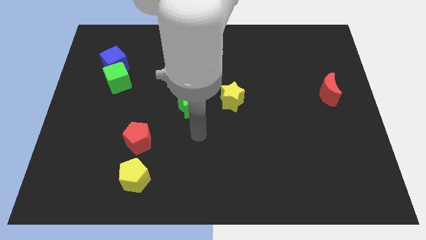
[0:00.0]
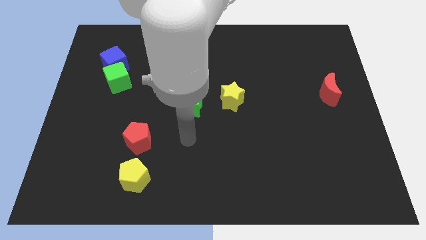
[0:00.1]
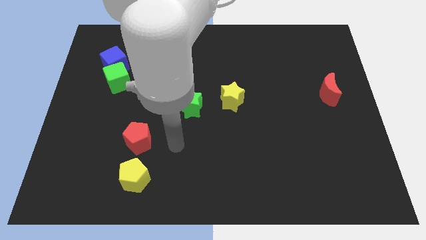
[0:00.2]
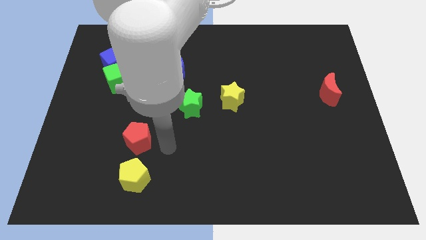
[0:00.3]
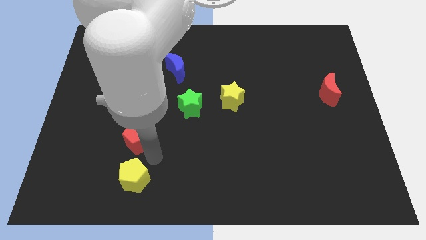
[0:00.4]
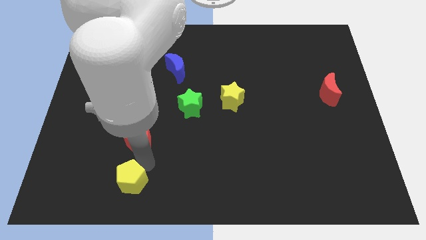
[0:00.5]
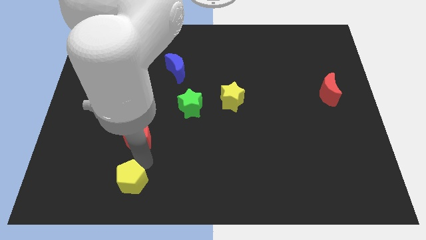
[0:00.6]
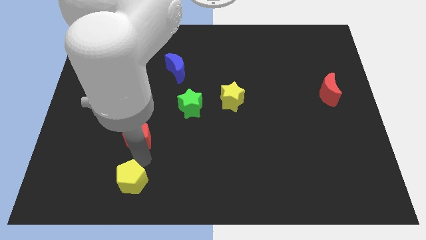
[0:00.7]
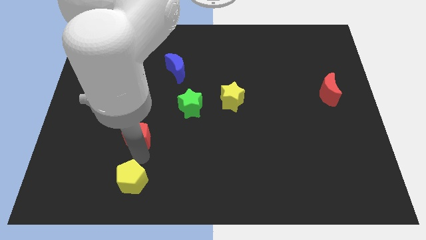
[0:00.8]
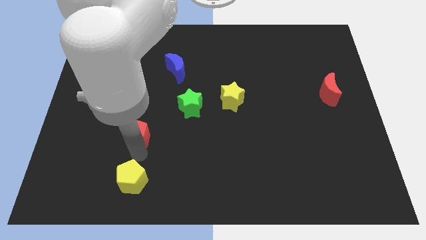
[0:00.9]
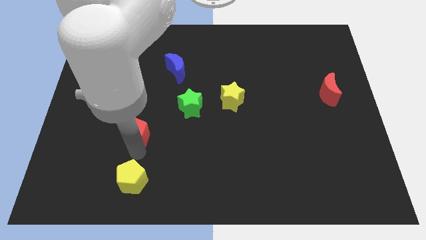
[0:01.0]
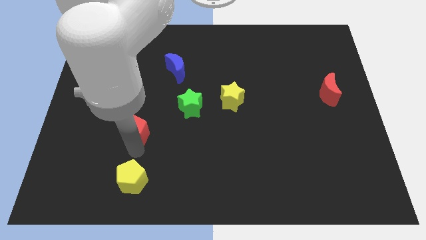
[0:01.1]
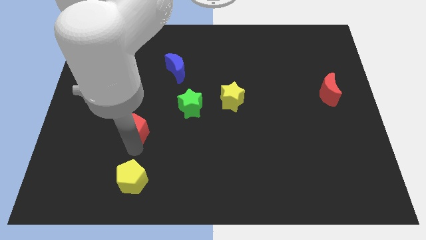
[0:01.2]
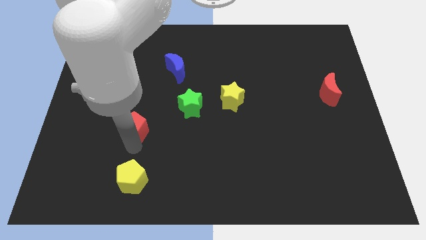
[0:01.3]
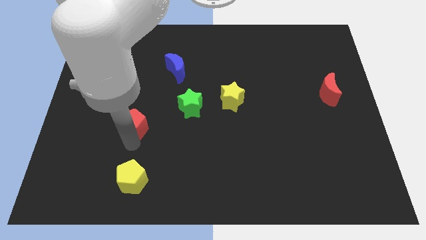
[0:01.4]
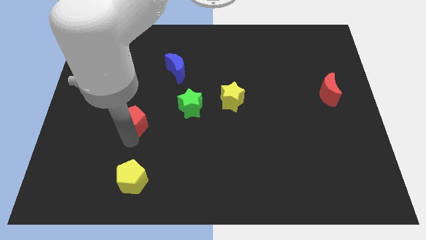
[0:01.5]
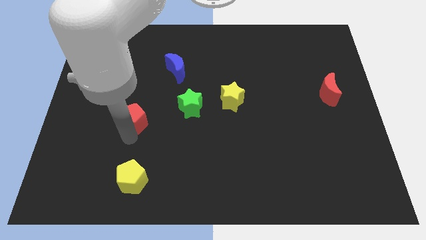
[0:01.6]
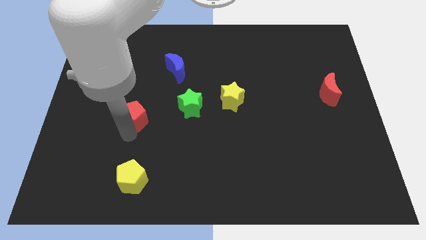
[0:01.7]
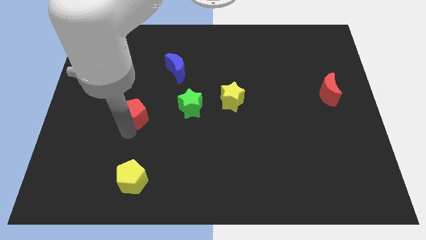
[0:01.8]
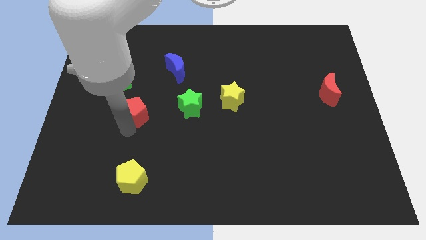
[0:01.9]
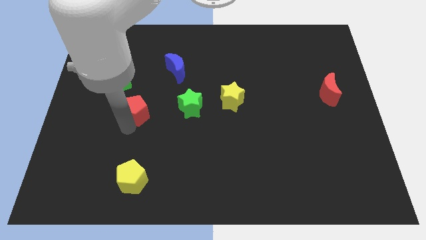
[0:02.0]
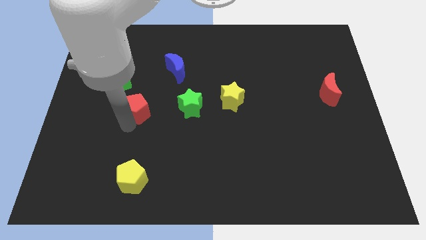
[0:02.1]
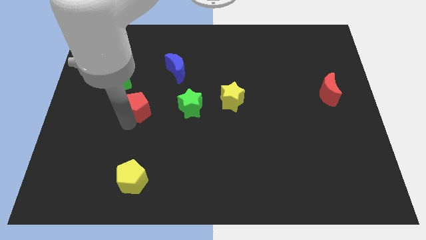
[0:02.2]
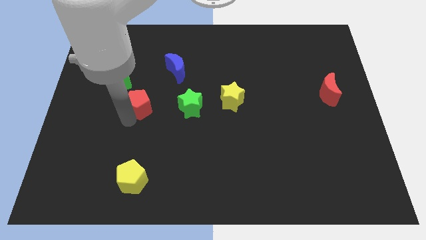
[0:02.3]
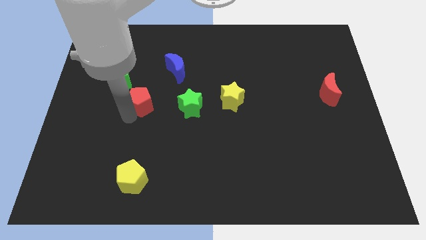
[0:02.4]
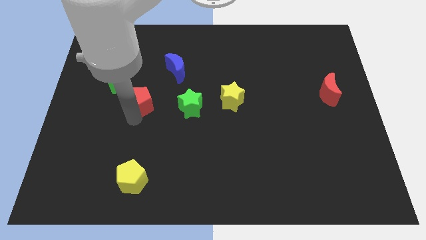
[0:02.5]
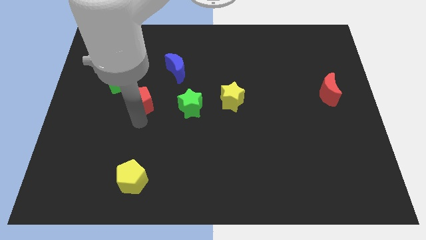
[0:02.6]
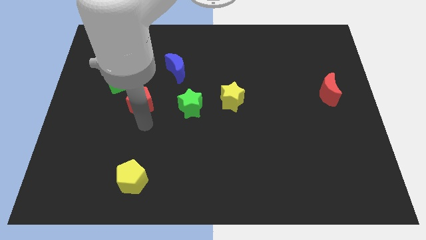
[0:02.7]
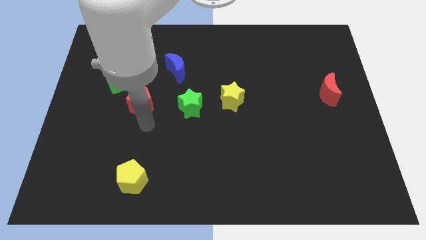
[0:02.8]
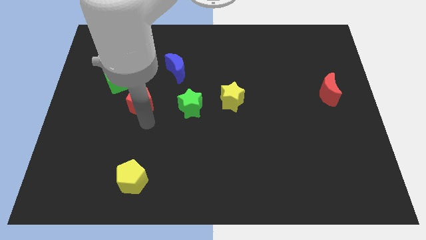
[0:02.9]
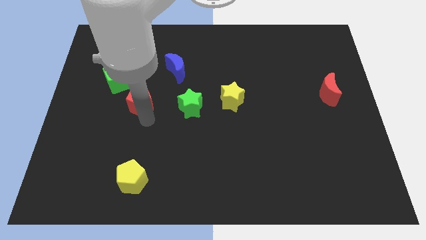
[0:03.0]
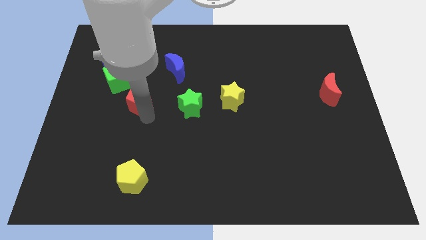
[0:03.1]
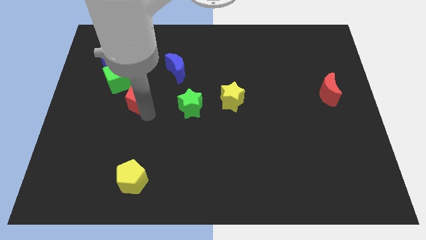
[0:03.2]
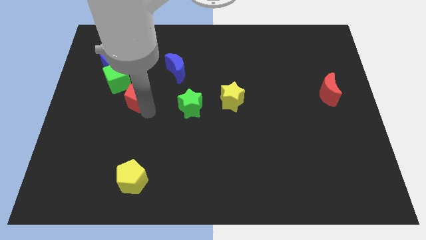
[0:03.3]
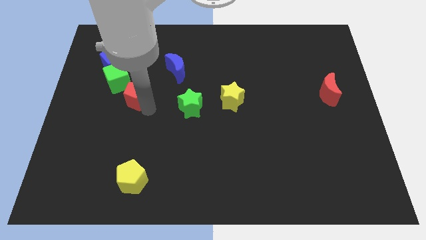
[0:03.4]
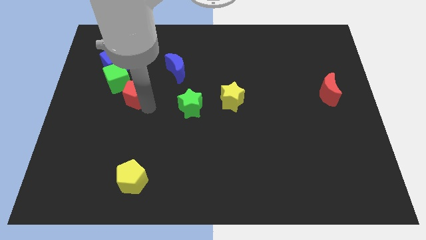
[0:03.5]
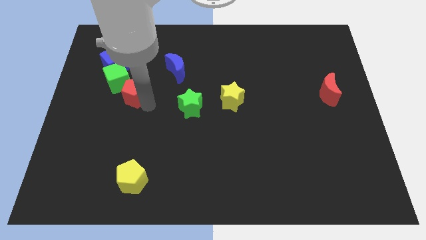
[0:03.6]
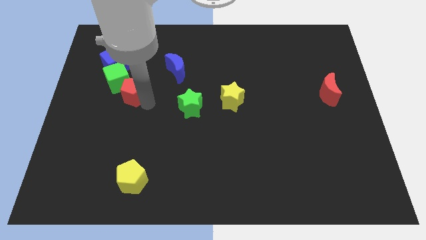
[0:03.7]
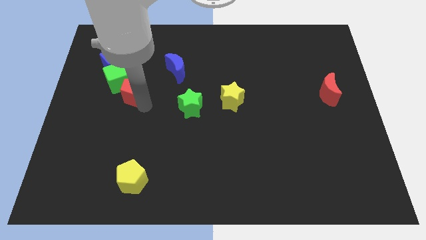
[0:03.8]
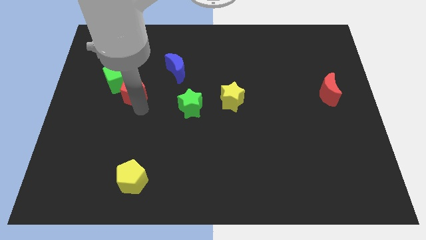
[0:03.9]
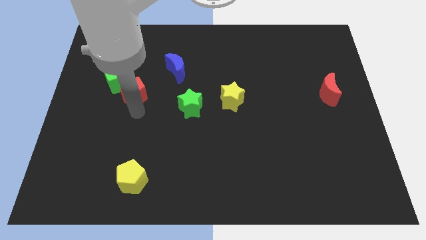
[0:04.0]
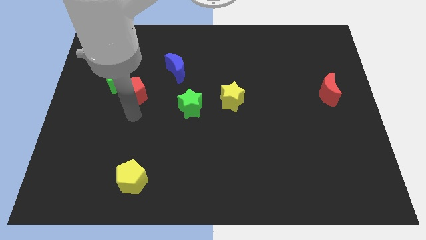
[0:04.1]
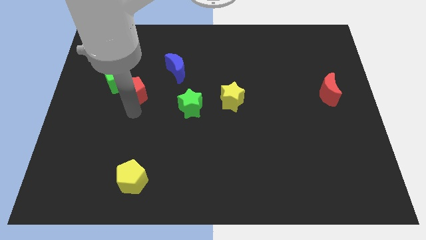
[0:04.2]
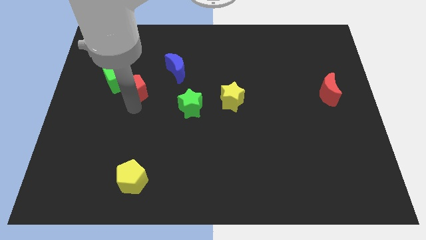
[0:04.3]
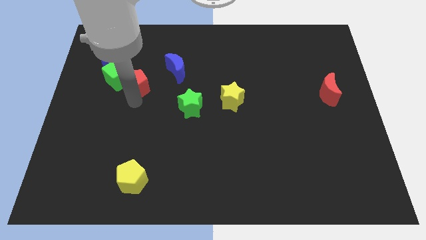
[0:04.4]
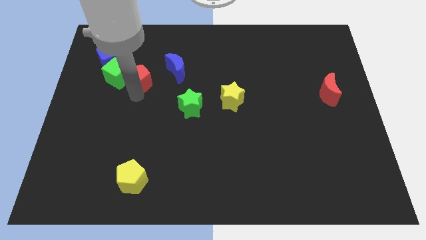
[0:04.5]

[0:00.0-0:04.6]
put the red pentagon left of the blue moon

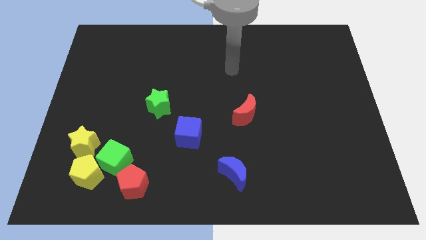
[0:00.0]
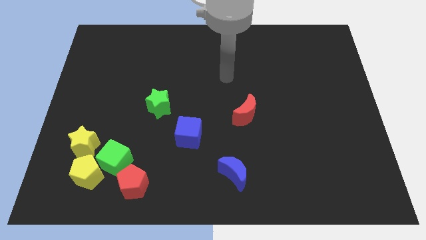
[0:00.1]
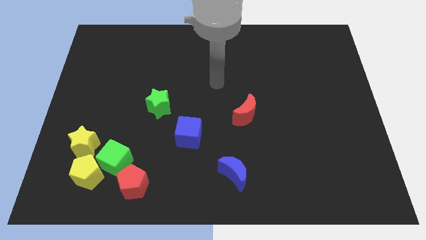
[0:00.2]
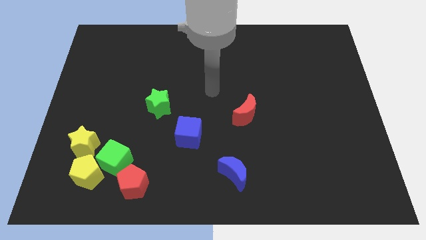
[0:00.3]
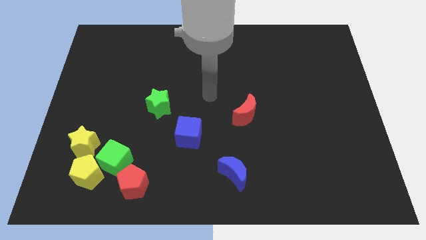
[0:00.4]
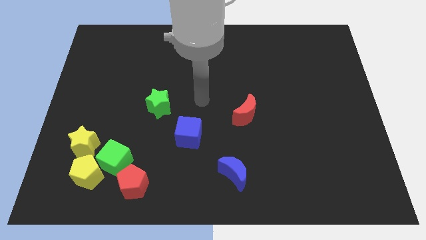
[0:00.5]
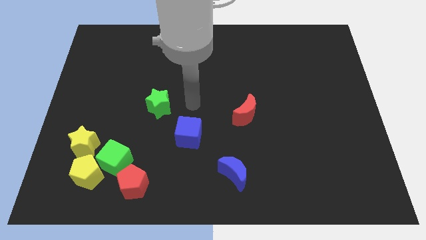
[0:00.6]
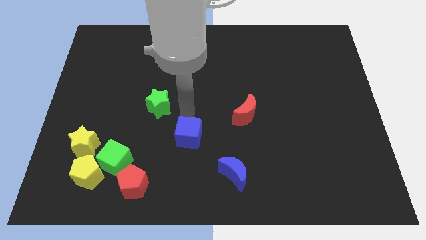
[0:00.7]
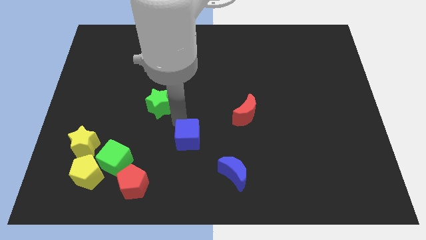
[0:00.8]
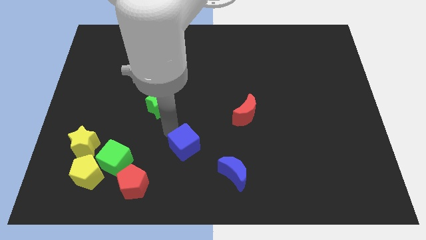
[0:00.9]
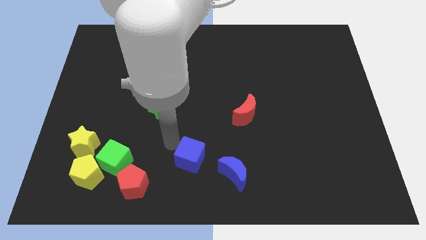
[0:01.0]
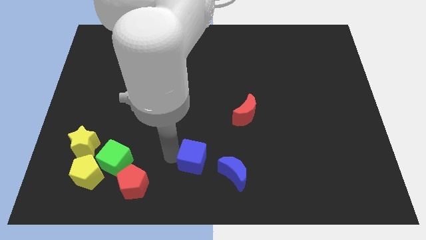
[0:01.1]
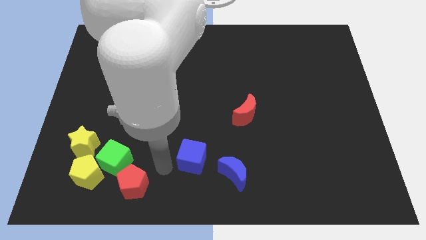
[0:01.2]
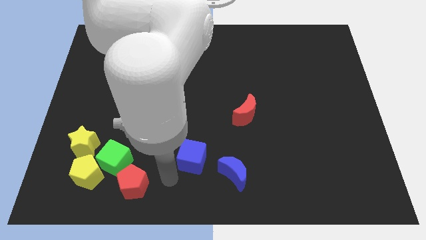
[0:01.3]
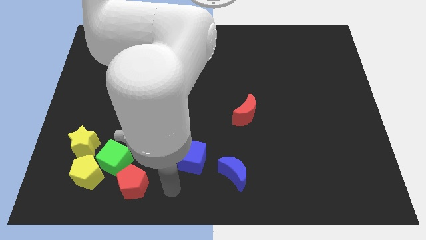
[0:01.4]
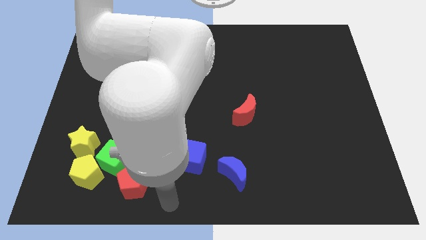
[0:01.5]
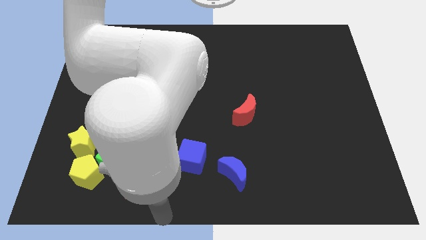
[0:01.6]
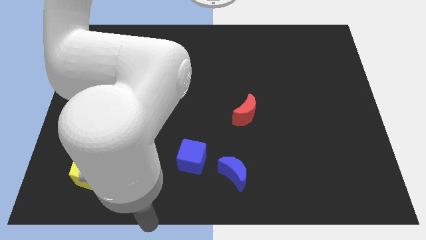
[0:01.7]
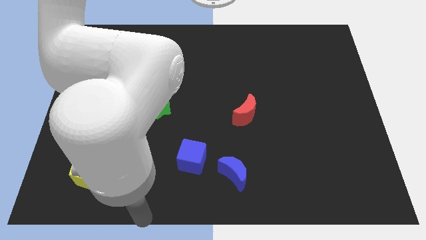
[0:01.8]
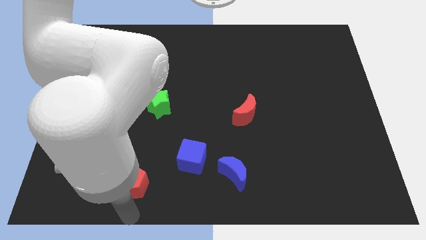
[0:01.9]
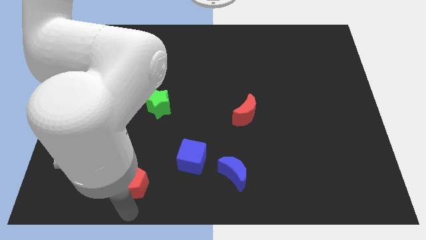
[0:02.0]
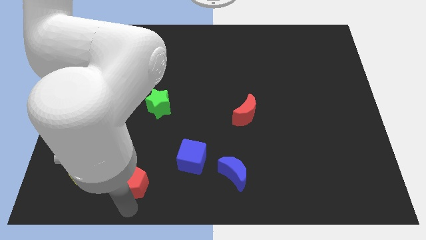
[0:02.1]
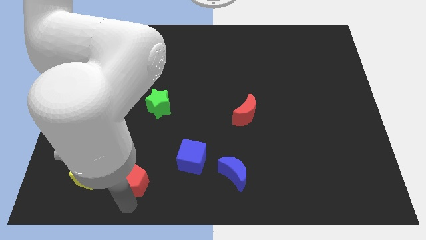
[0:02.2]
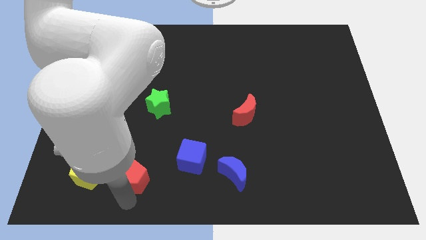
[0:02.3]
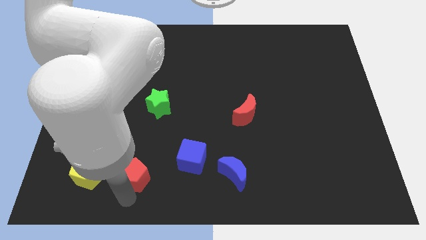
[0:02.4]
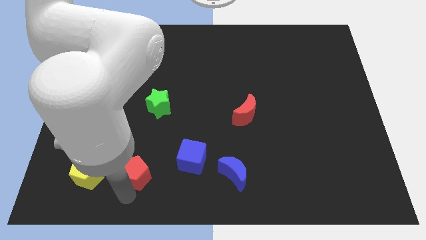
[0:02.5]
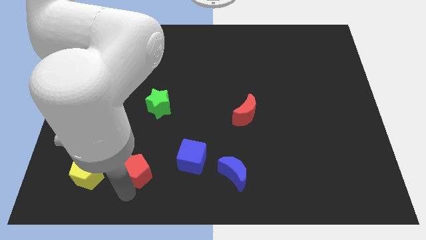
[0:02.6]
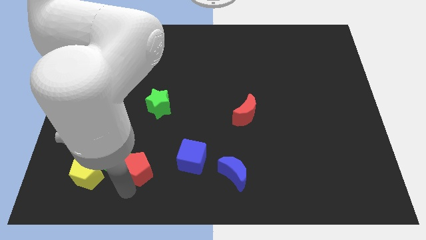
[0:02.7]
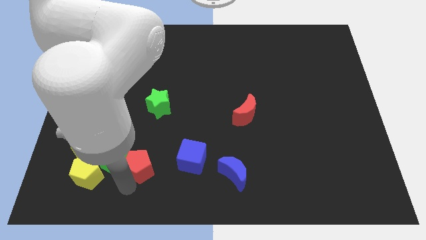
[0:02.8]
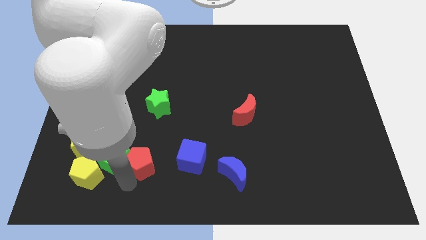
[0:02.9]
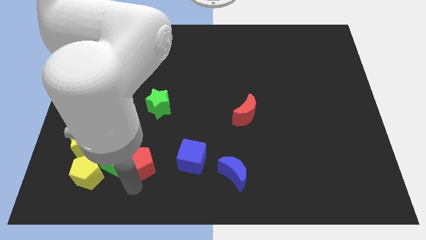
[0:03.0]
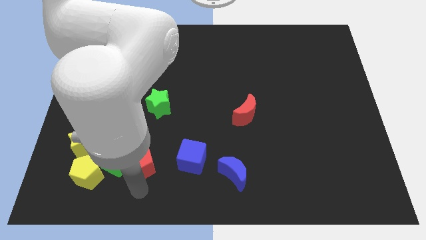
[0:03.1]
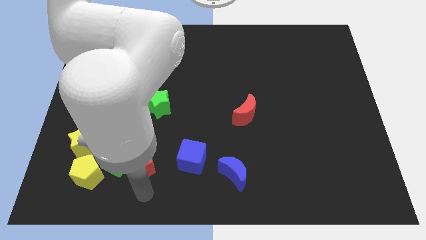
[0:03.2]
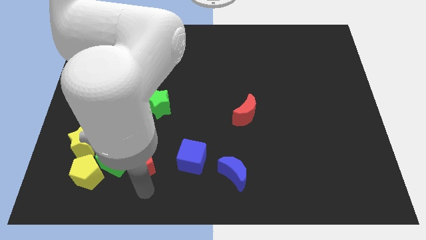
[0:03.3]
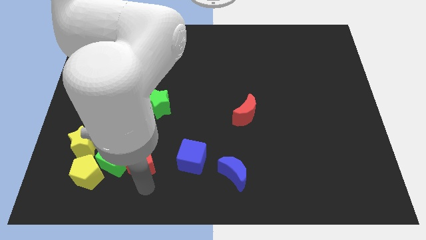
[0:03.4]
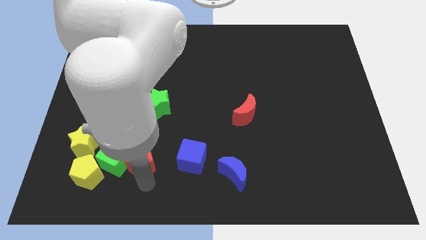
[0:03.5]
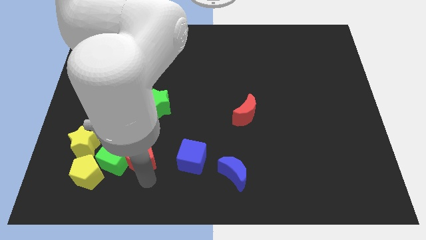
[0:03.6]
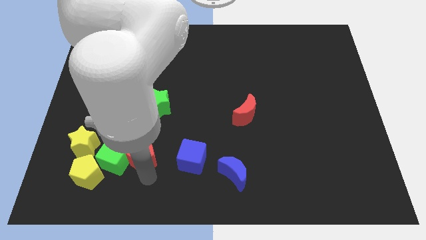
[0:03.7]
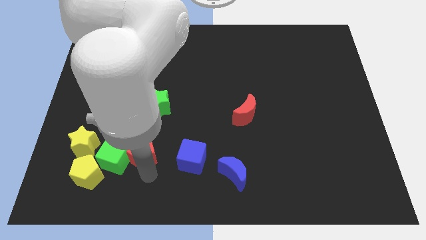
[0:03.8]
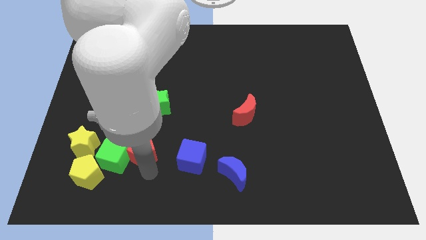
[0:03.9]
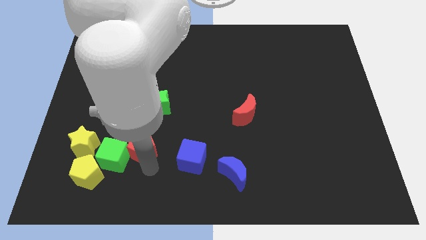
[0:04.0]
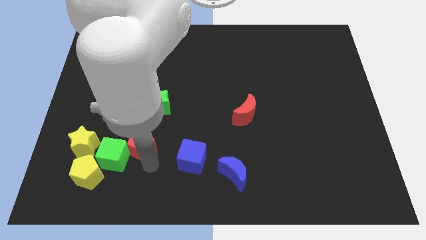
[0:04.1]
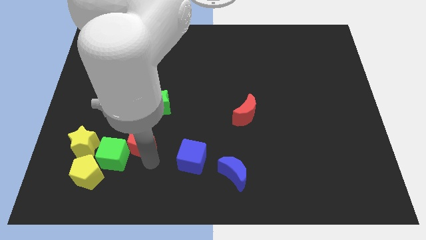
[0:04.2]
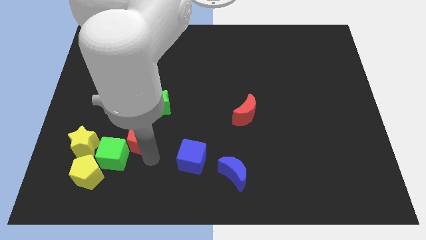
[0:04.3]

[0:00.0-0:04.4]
put the red pentagon to the bottom left side of the green star
